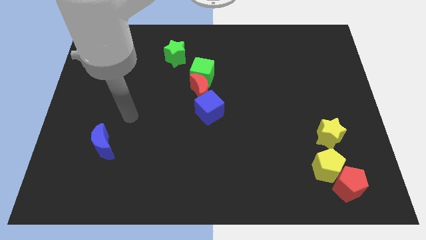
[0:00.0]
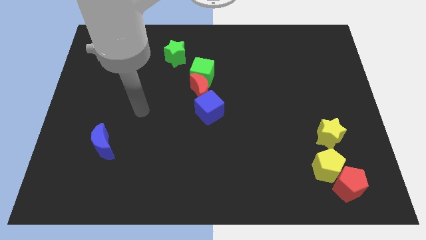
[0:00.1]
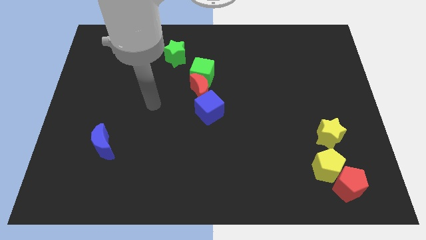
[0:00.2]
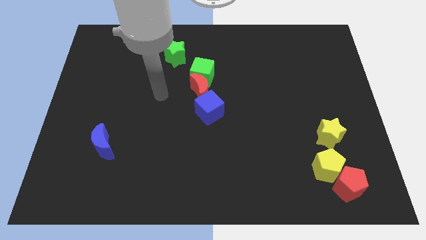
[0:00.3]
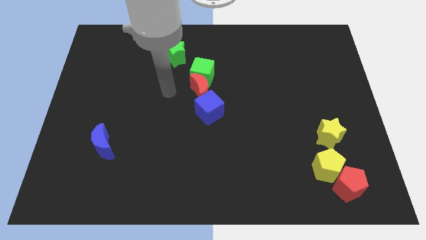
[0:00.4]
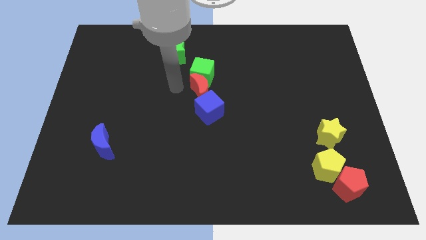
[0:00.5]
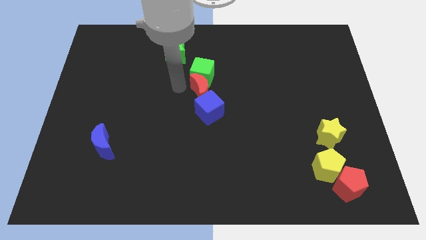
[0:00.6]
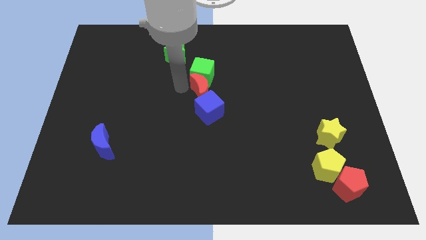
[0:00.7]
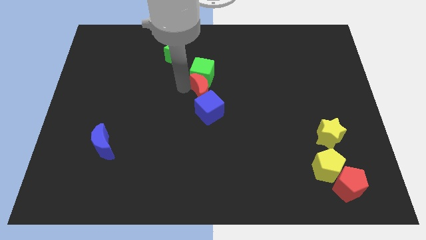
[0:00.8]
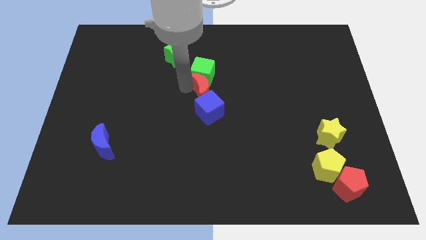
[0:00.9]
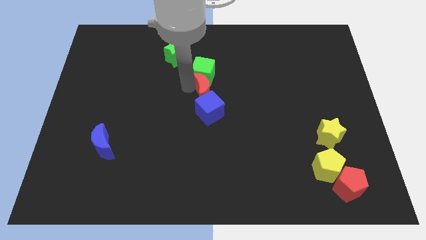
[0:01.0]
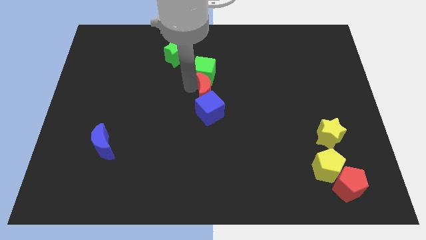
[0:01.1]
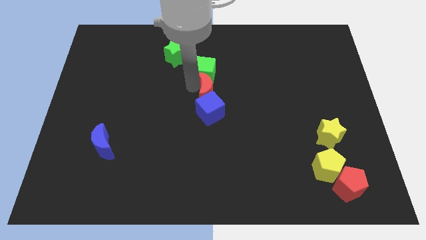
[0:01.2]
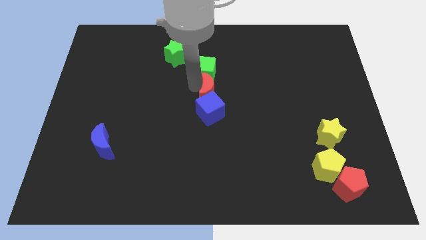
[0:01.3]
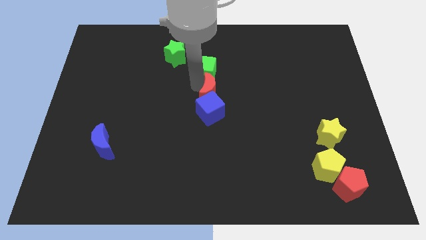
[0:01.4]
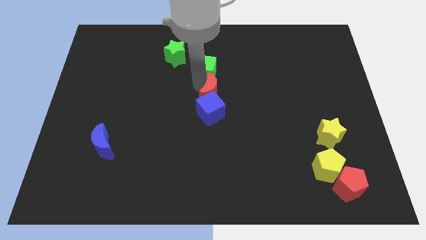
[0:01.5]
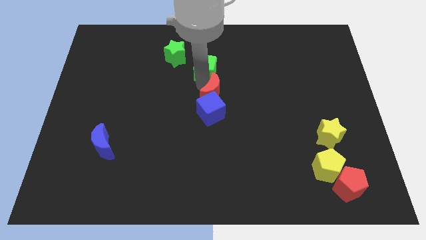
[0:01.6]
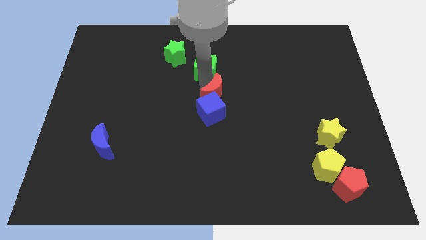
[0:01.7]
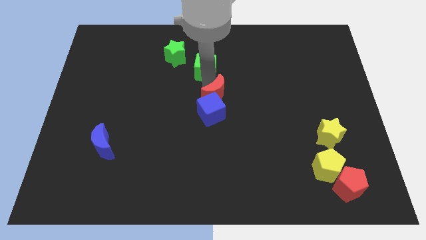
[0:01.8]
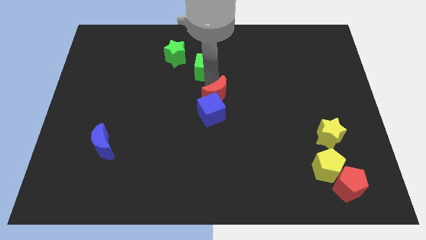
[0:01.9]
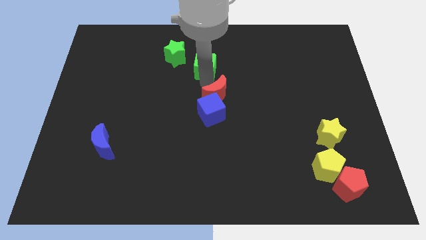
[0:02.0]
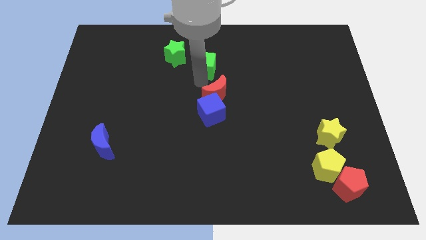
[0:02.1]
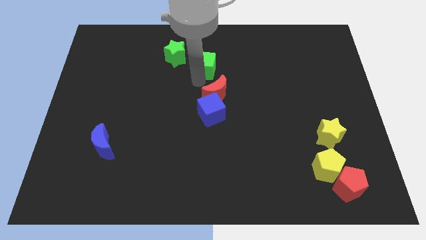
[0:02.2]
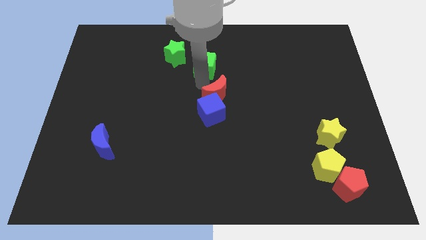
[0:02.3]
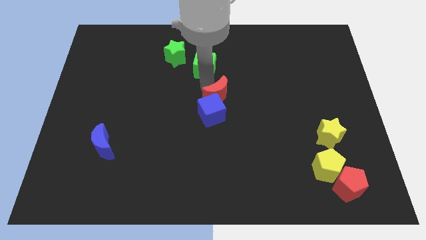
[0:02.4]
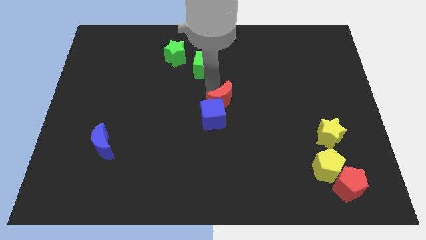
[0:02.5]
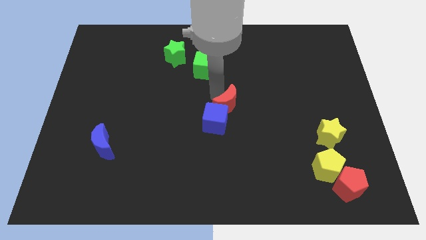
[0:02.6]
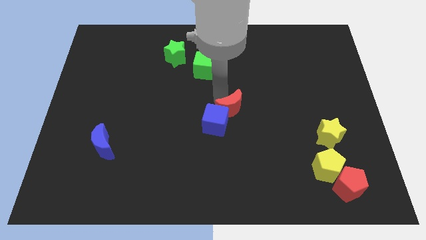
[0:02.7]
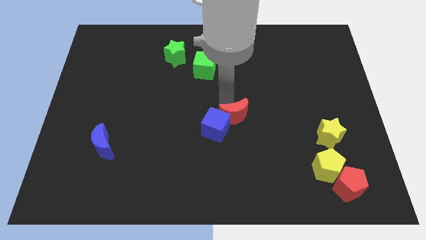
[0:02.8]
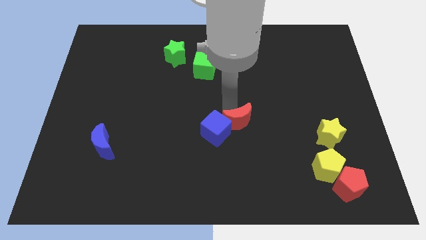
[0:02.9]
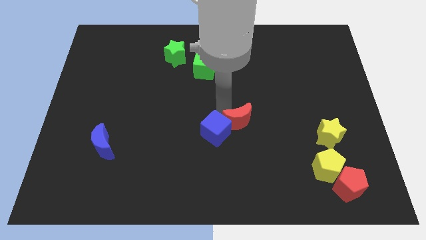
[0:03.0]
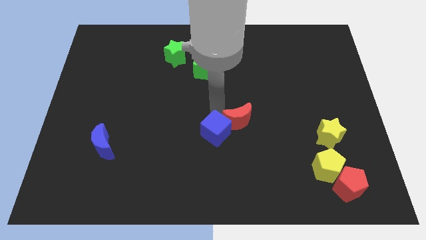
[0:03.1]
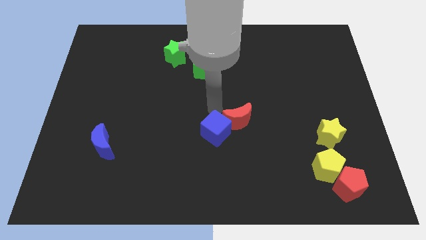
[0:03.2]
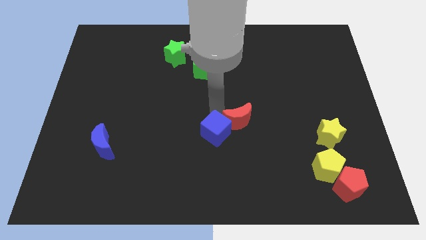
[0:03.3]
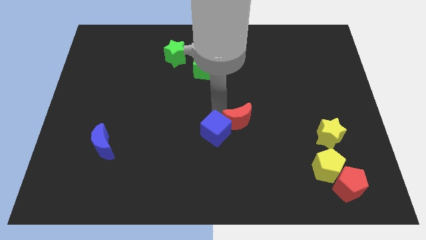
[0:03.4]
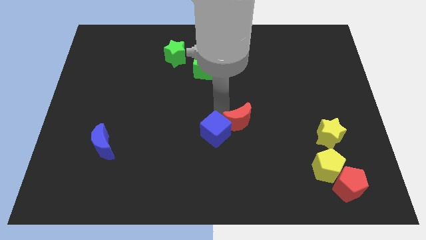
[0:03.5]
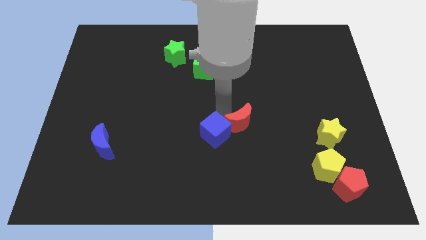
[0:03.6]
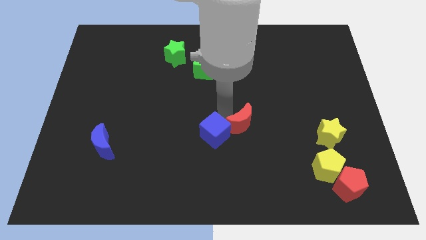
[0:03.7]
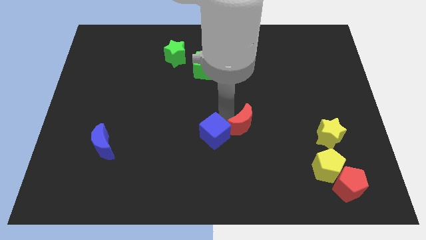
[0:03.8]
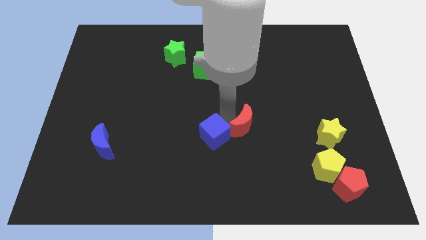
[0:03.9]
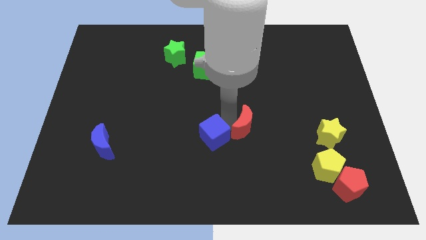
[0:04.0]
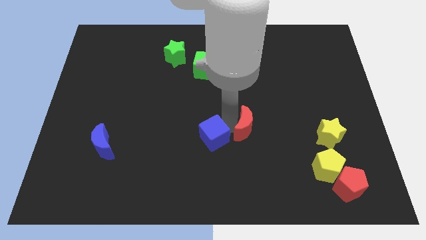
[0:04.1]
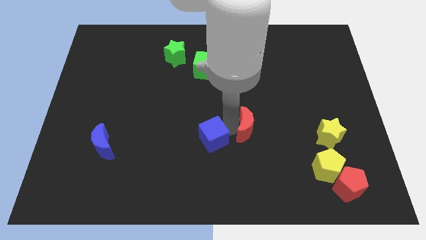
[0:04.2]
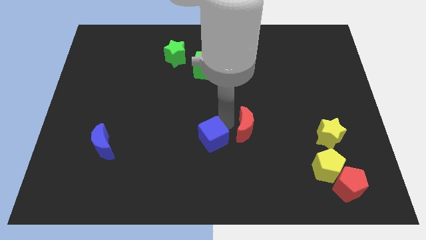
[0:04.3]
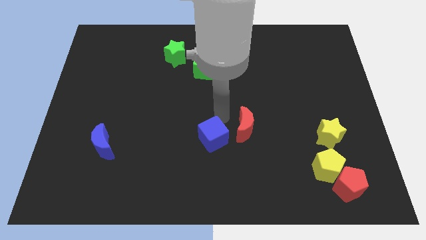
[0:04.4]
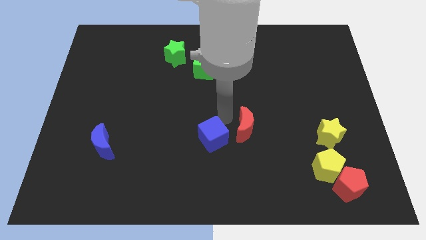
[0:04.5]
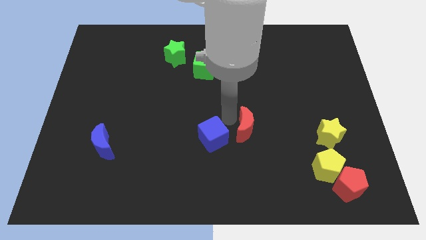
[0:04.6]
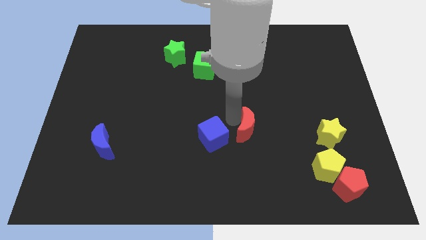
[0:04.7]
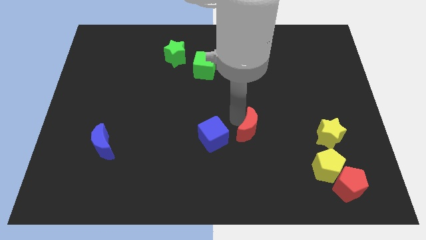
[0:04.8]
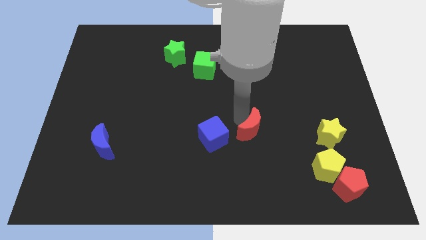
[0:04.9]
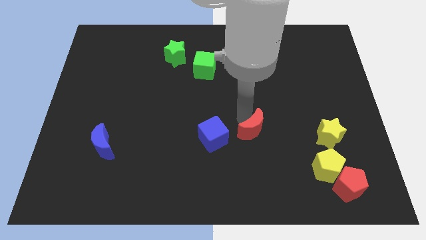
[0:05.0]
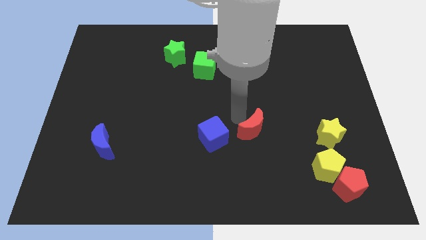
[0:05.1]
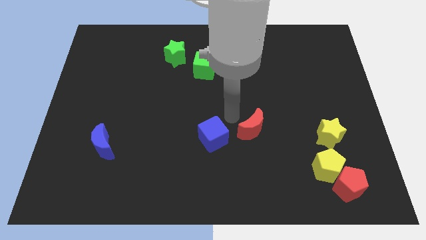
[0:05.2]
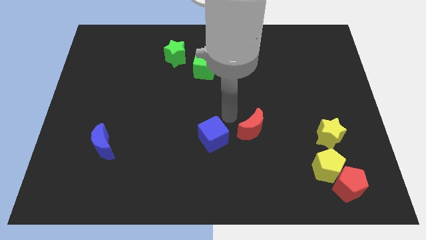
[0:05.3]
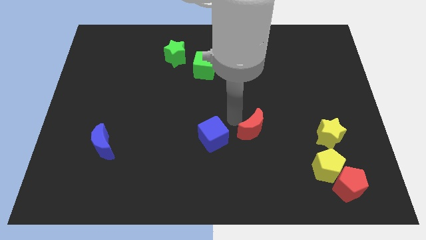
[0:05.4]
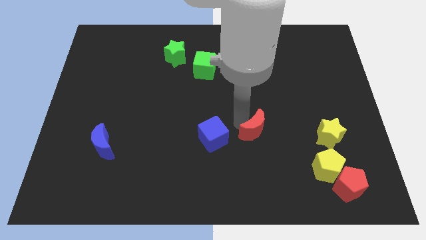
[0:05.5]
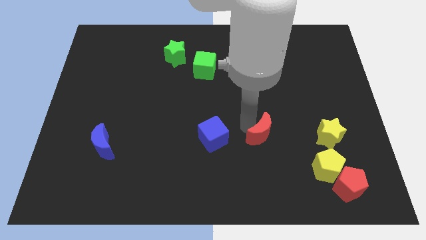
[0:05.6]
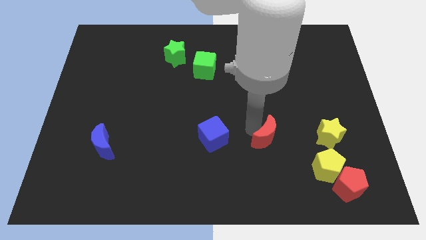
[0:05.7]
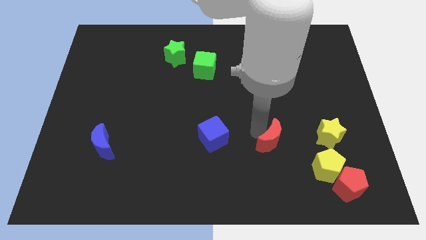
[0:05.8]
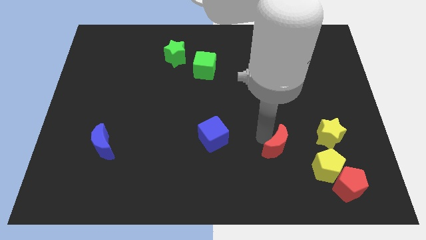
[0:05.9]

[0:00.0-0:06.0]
move the red moon to the top left side of the yellow pentagon

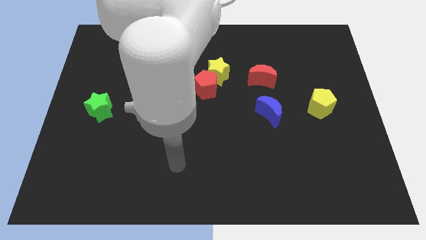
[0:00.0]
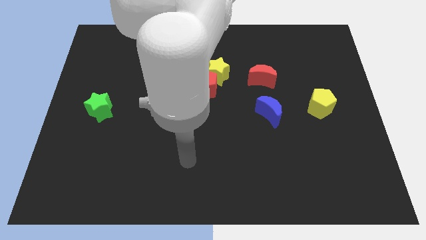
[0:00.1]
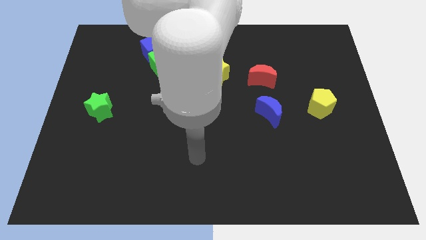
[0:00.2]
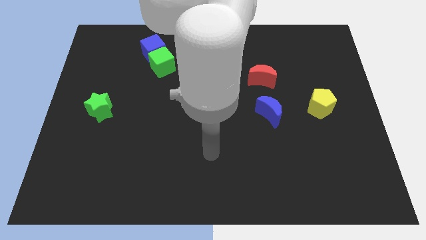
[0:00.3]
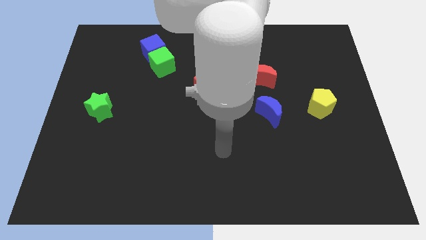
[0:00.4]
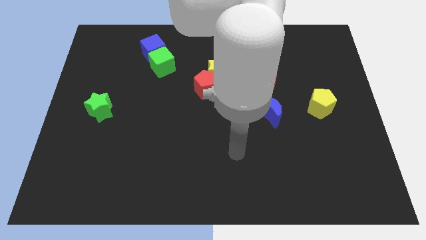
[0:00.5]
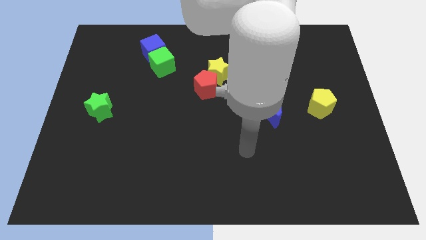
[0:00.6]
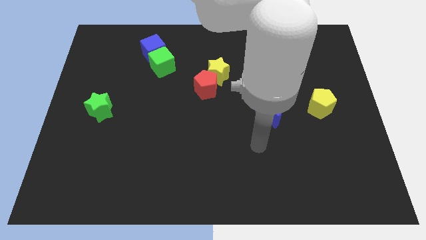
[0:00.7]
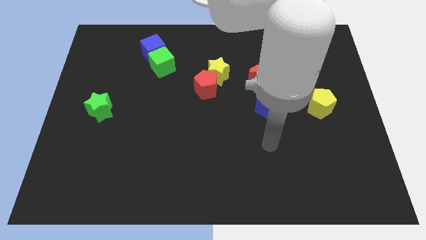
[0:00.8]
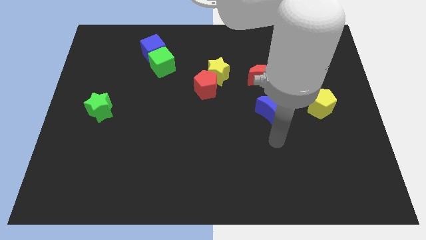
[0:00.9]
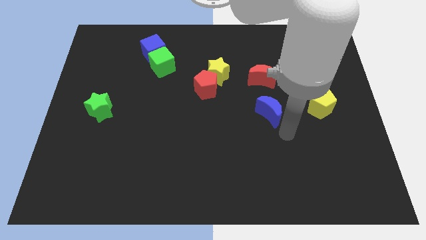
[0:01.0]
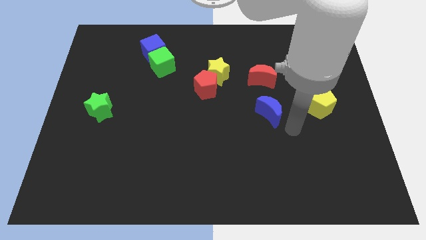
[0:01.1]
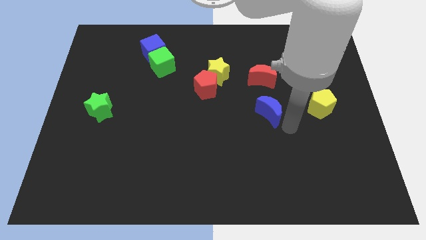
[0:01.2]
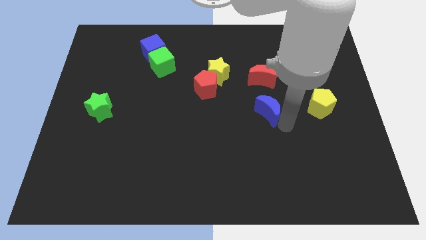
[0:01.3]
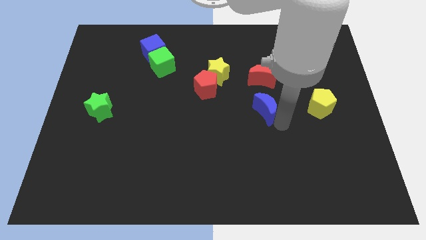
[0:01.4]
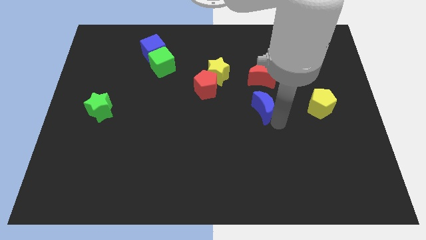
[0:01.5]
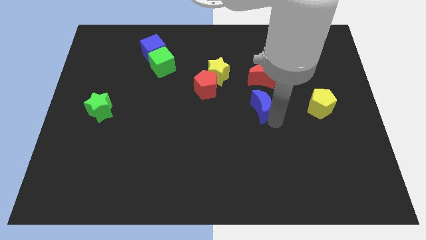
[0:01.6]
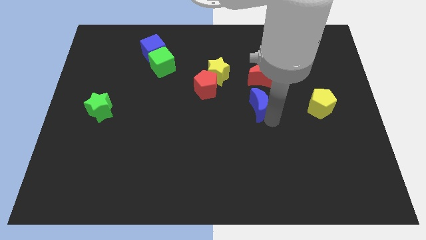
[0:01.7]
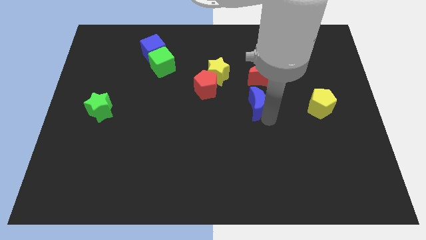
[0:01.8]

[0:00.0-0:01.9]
slide the blue moon diagonally down and to the left of the red moon
